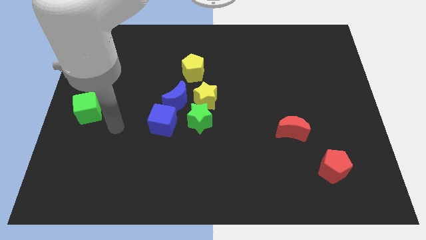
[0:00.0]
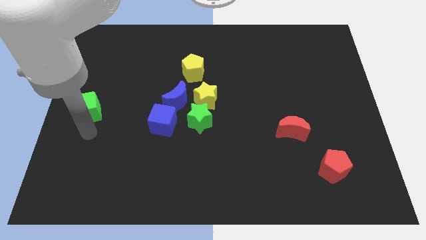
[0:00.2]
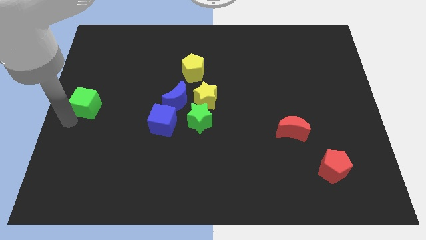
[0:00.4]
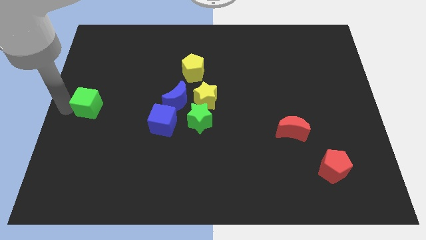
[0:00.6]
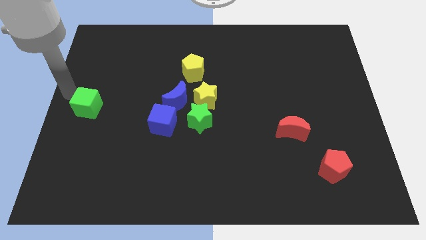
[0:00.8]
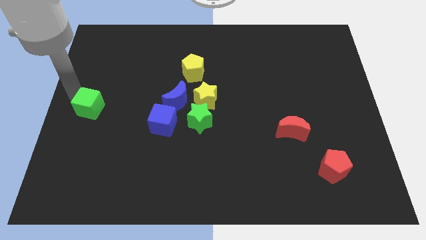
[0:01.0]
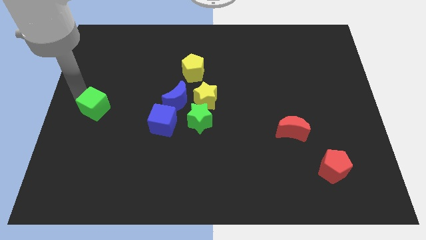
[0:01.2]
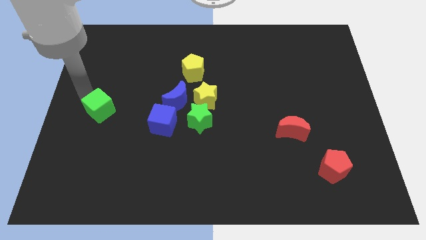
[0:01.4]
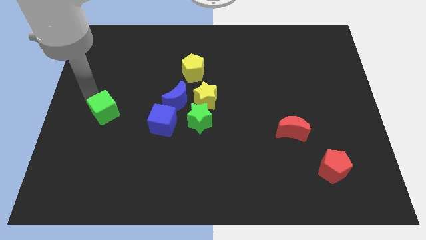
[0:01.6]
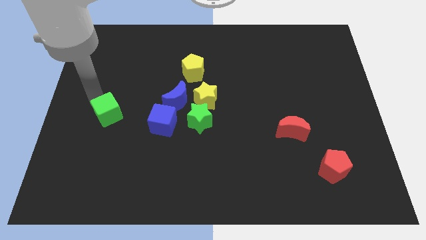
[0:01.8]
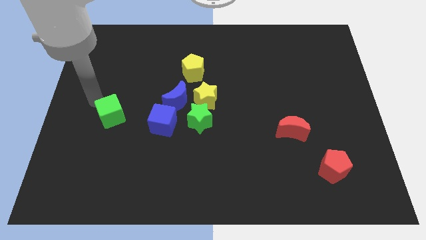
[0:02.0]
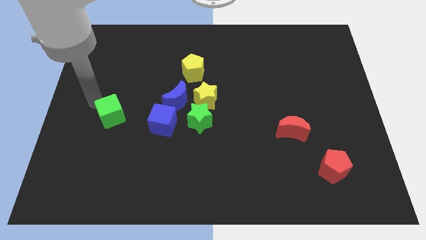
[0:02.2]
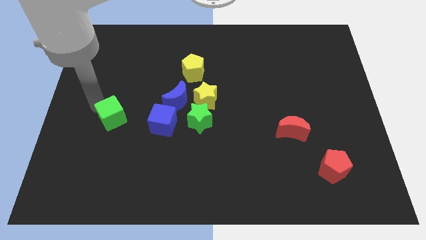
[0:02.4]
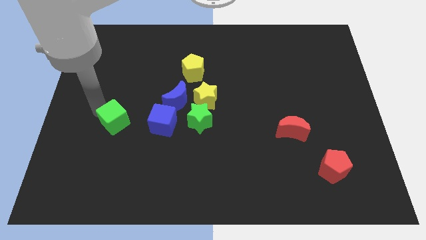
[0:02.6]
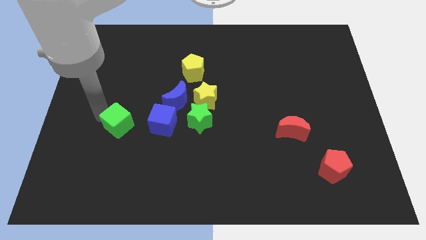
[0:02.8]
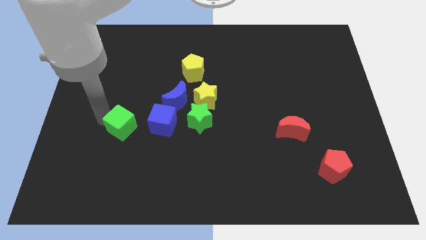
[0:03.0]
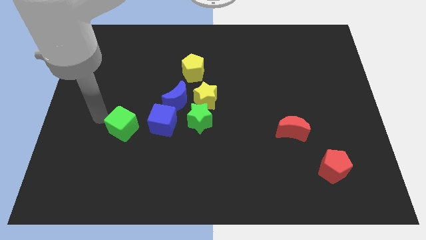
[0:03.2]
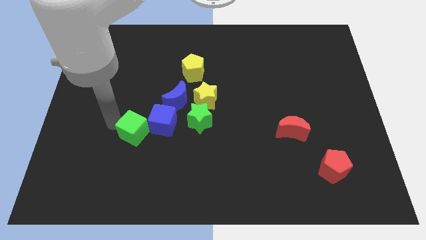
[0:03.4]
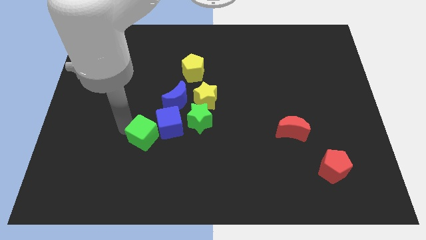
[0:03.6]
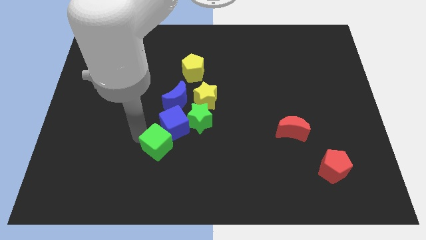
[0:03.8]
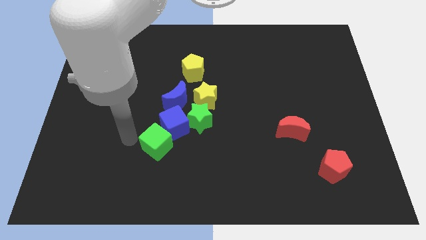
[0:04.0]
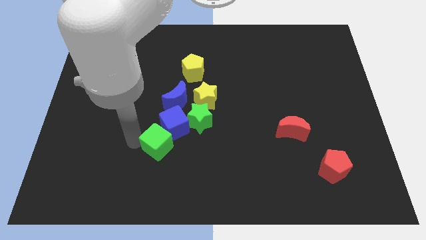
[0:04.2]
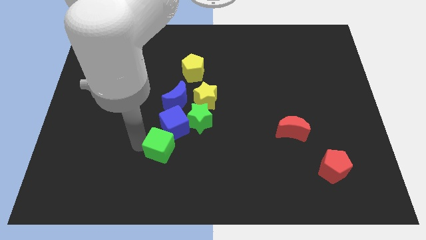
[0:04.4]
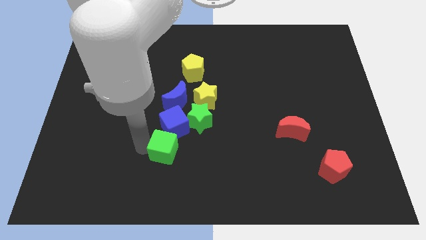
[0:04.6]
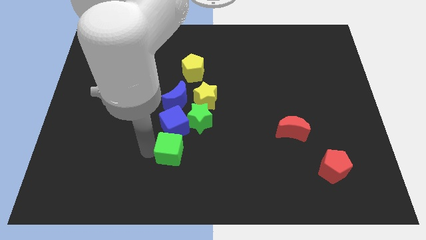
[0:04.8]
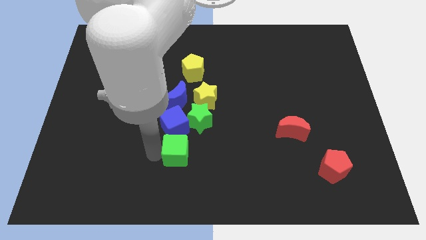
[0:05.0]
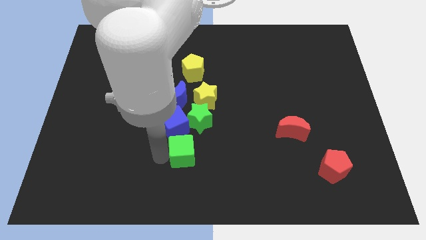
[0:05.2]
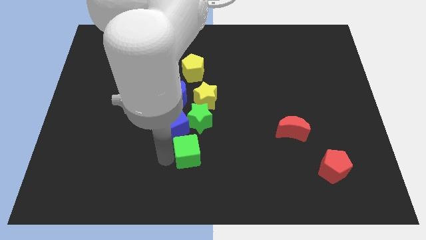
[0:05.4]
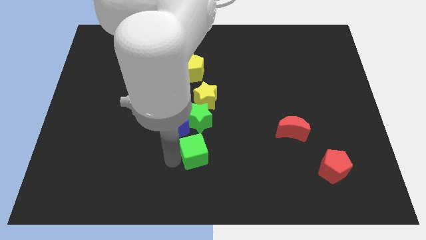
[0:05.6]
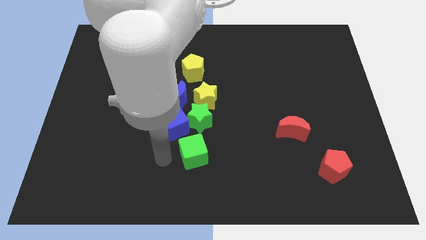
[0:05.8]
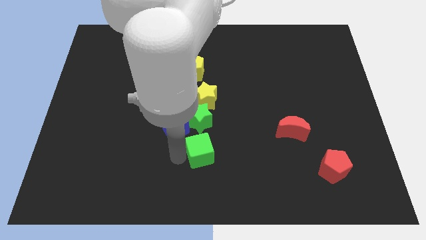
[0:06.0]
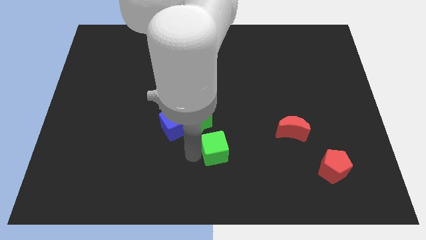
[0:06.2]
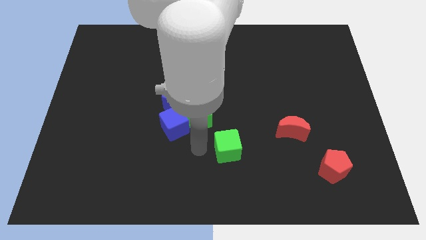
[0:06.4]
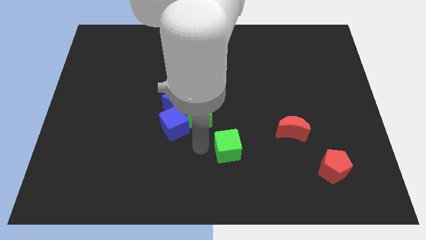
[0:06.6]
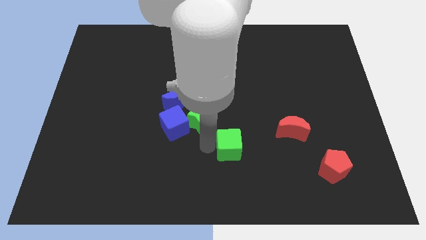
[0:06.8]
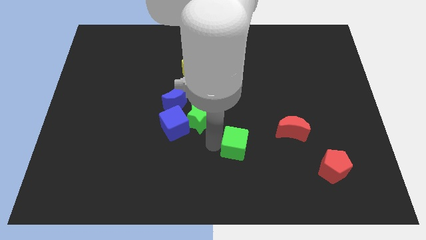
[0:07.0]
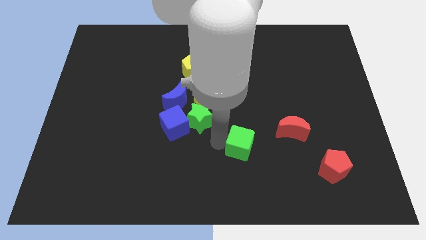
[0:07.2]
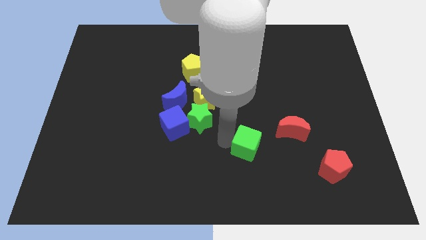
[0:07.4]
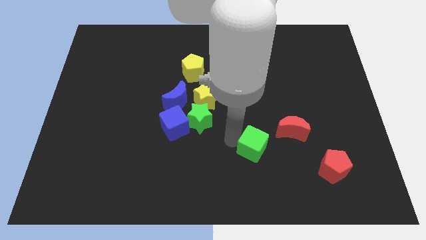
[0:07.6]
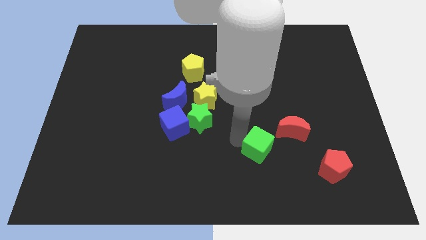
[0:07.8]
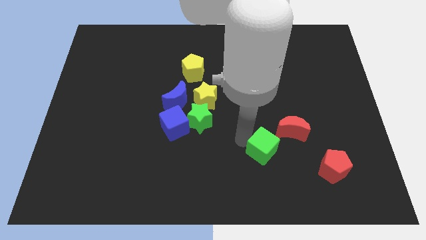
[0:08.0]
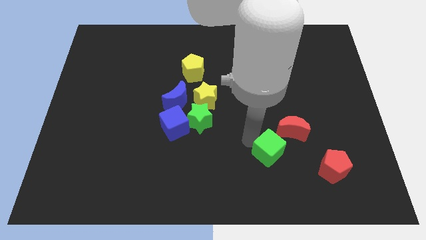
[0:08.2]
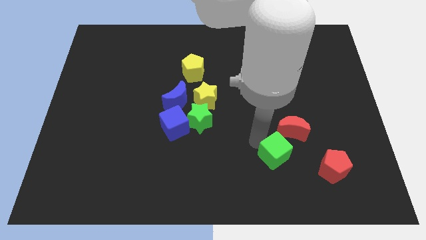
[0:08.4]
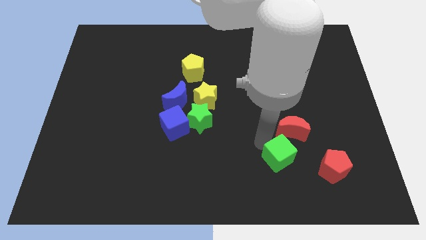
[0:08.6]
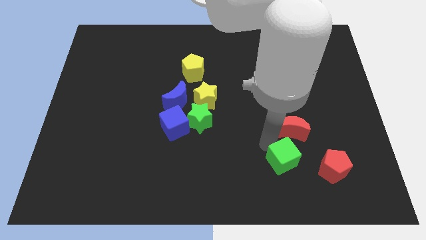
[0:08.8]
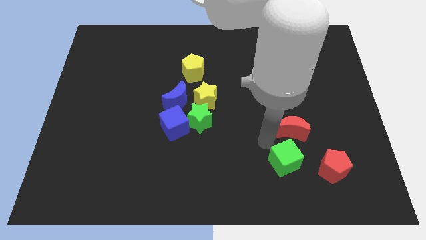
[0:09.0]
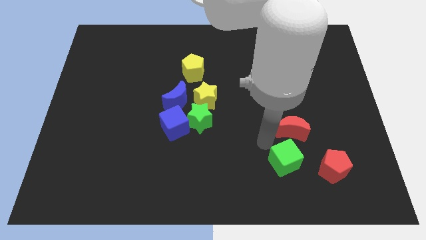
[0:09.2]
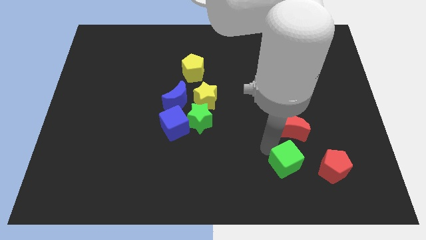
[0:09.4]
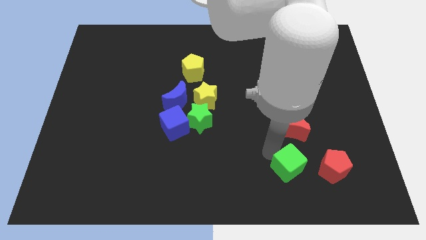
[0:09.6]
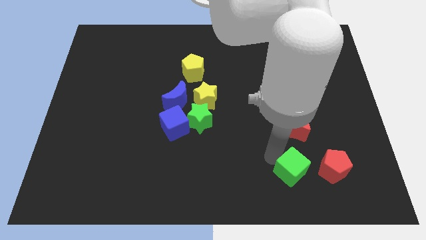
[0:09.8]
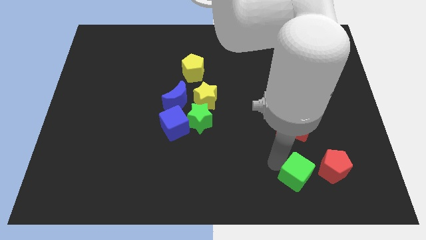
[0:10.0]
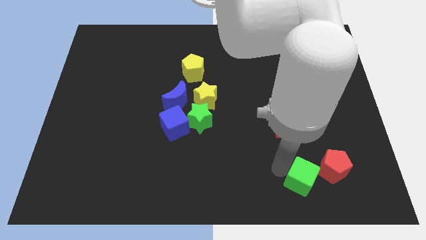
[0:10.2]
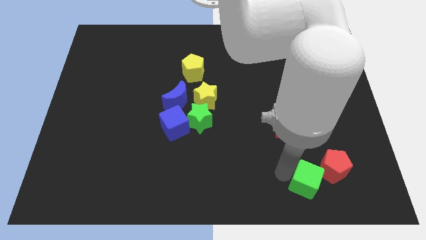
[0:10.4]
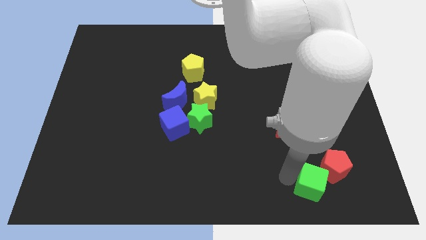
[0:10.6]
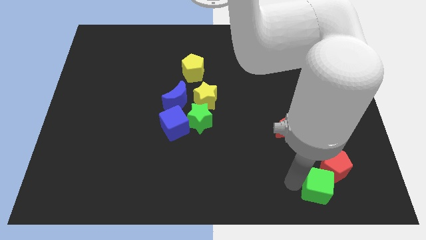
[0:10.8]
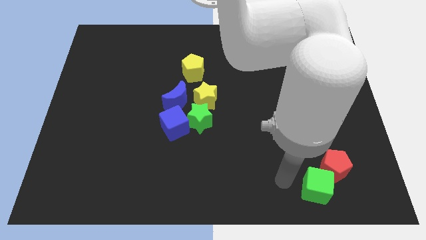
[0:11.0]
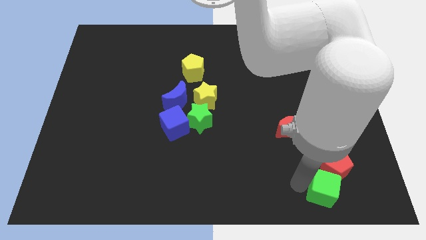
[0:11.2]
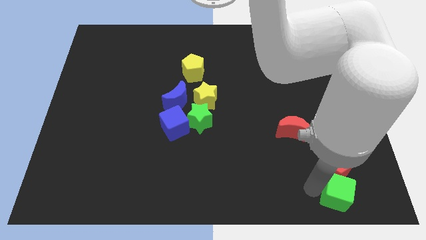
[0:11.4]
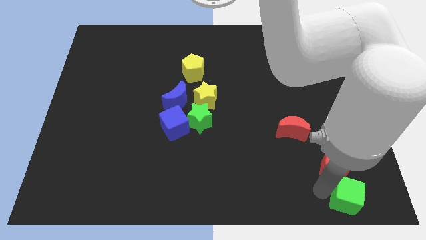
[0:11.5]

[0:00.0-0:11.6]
move the green cube to the bottom right

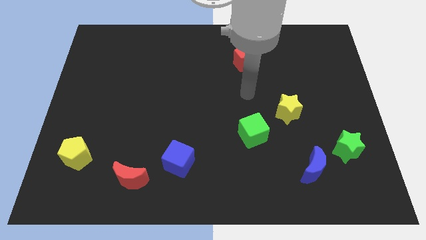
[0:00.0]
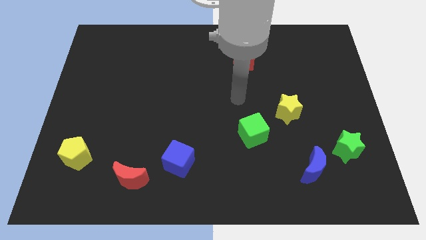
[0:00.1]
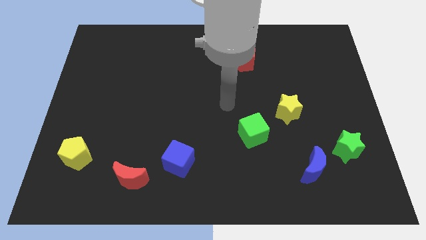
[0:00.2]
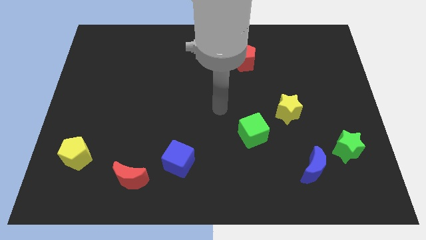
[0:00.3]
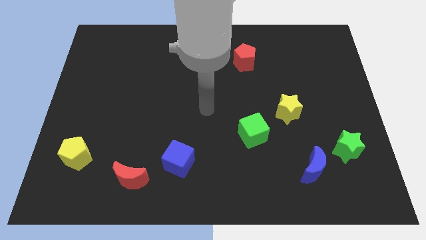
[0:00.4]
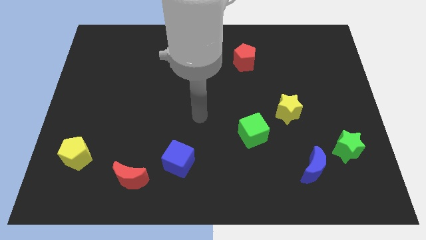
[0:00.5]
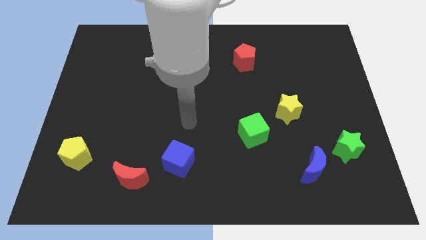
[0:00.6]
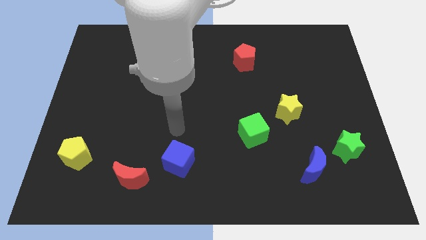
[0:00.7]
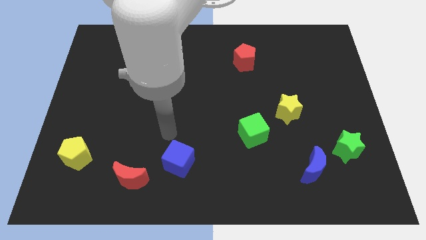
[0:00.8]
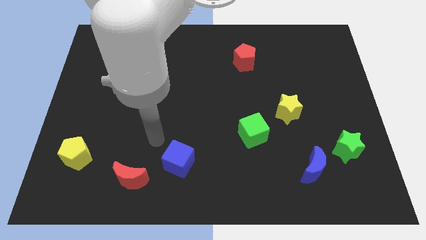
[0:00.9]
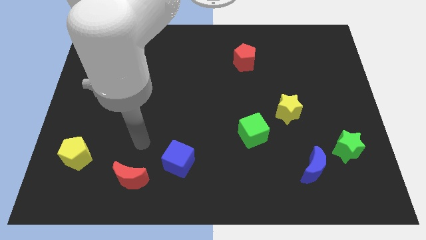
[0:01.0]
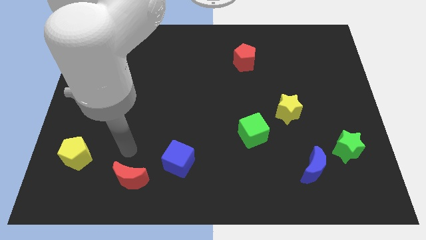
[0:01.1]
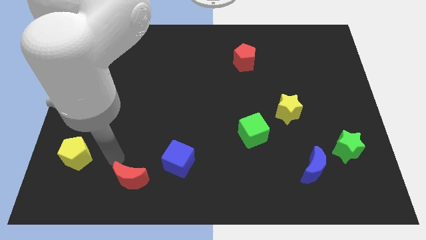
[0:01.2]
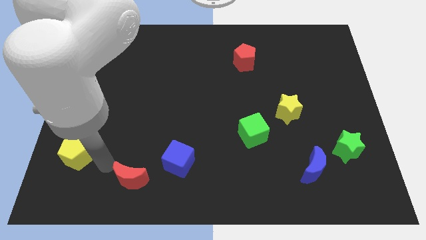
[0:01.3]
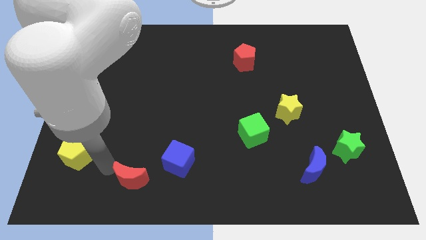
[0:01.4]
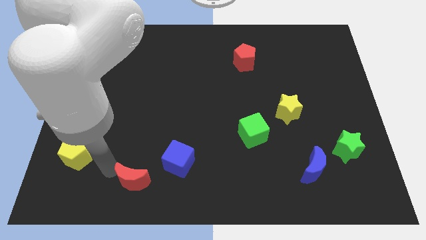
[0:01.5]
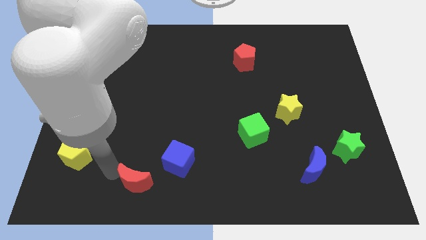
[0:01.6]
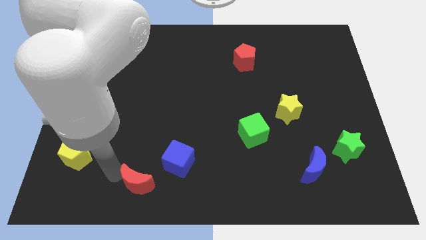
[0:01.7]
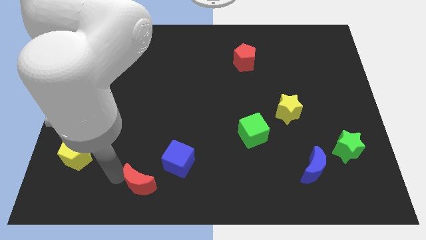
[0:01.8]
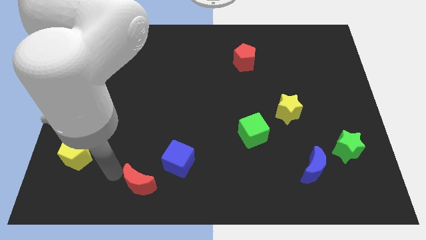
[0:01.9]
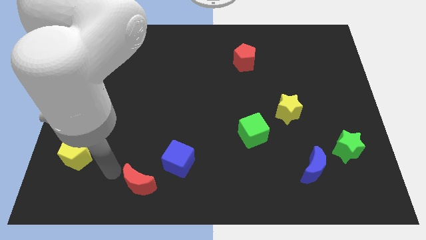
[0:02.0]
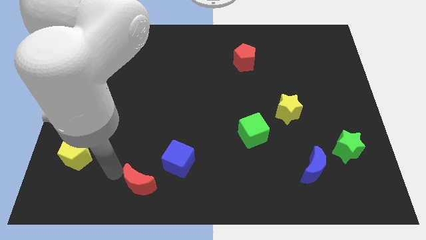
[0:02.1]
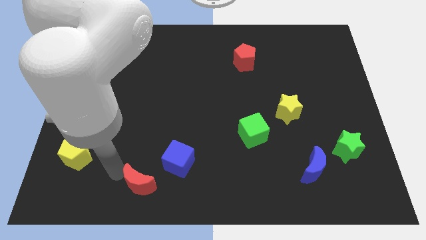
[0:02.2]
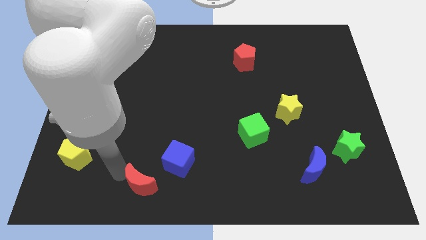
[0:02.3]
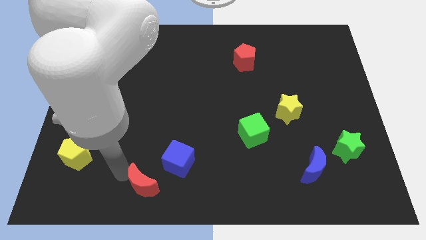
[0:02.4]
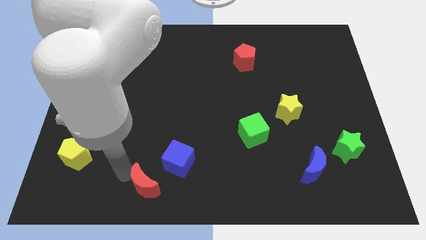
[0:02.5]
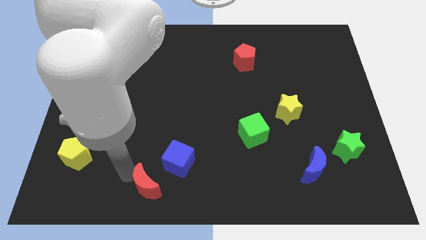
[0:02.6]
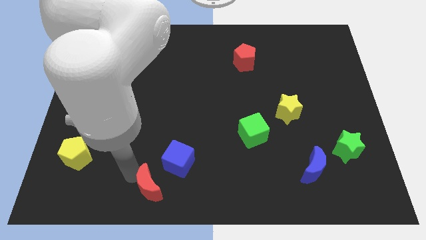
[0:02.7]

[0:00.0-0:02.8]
move the red moon to the bottom side
